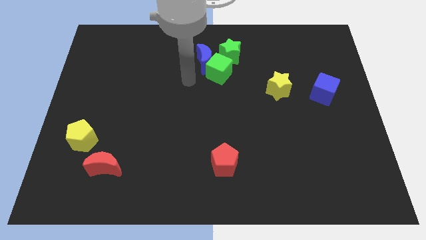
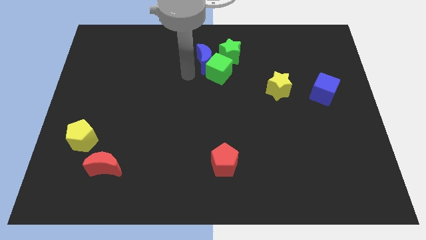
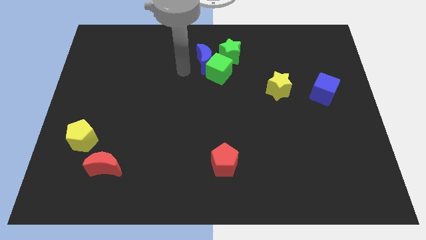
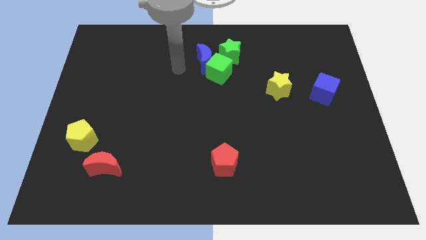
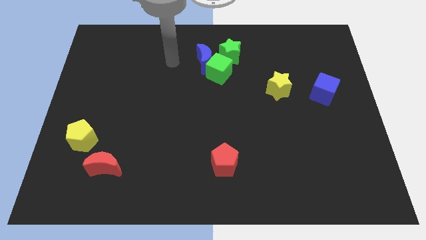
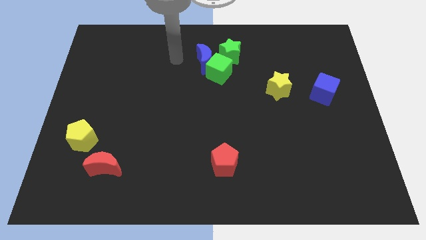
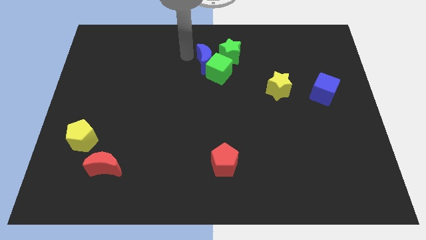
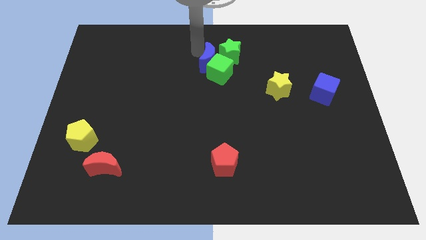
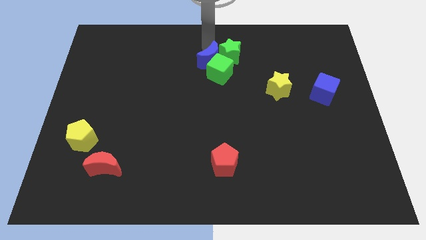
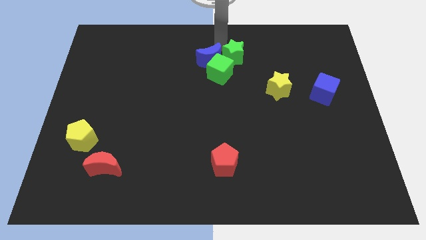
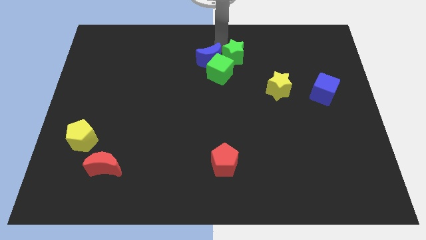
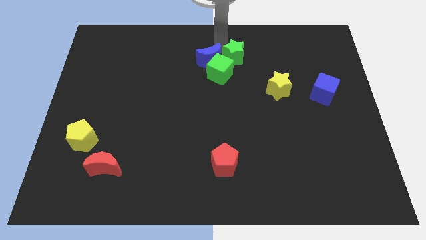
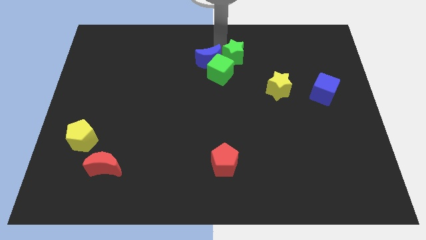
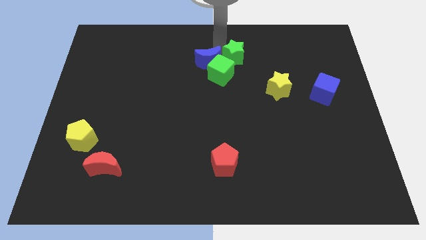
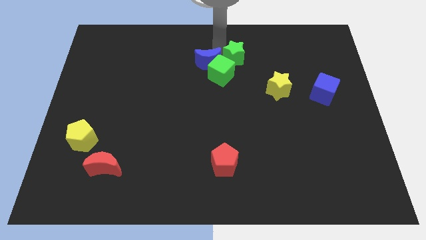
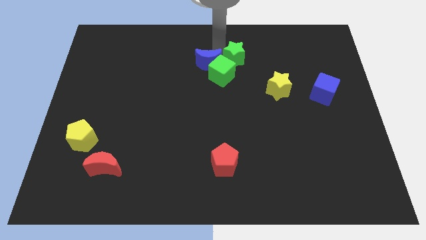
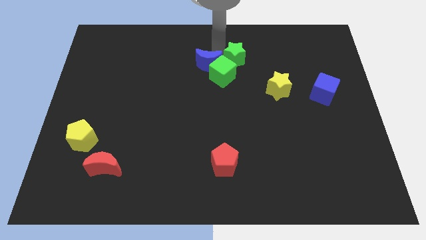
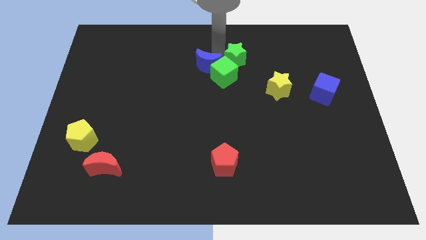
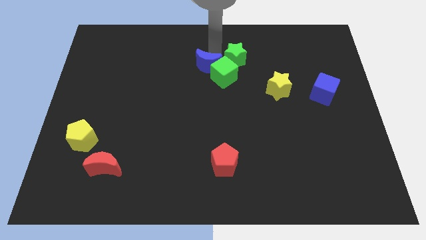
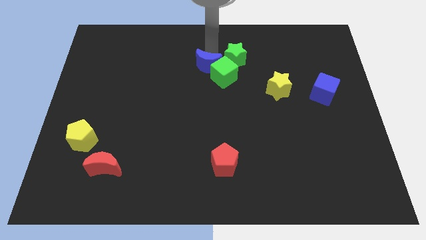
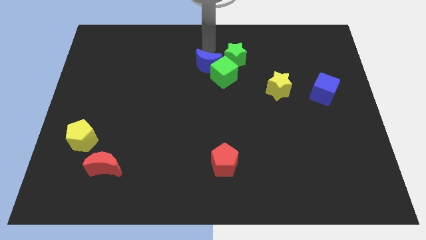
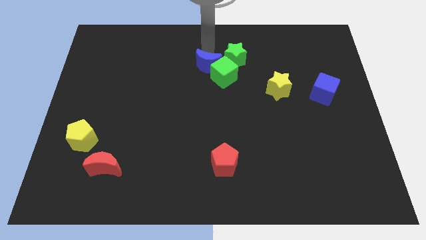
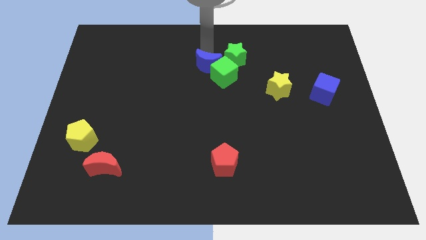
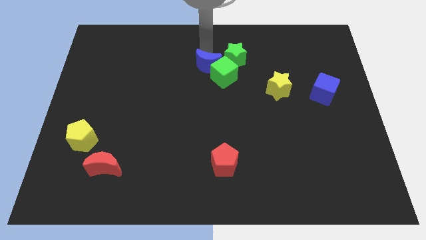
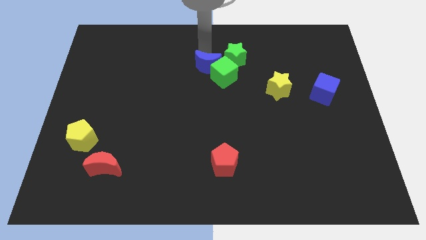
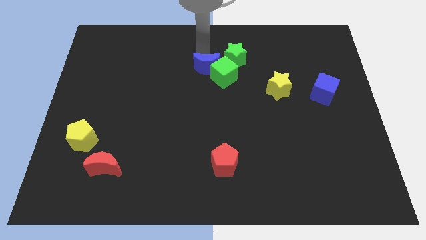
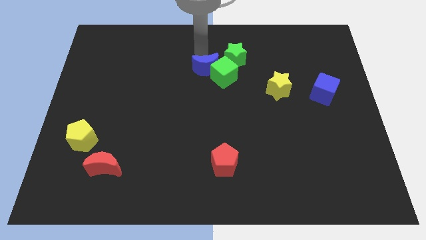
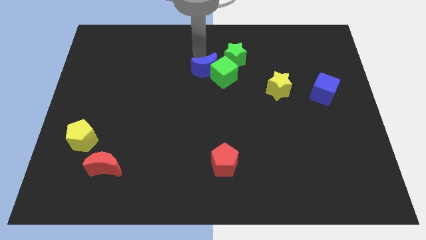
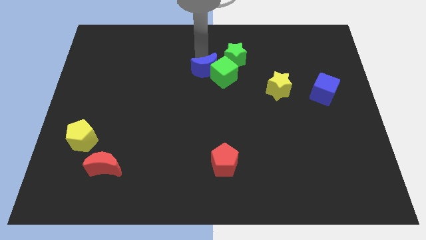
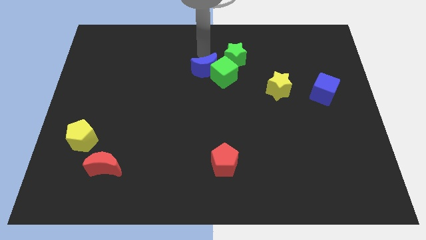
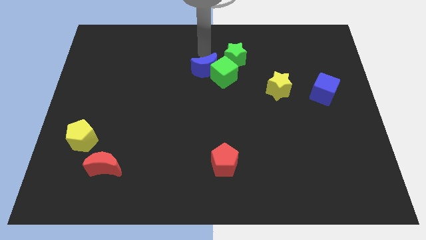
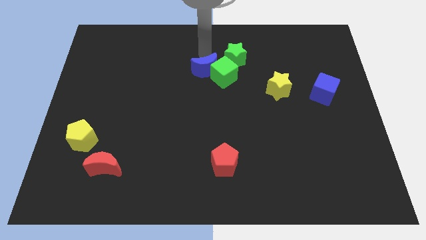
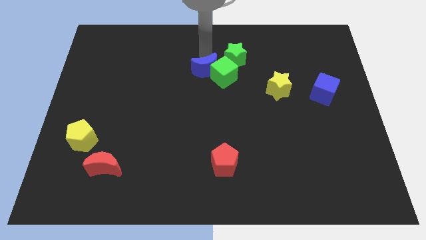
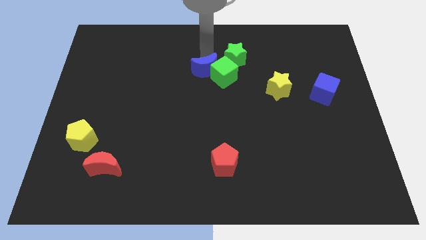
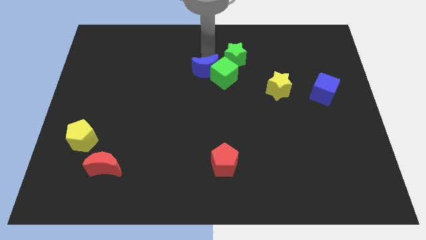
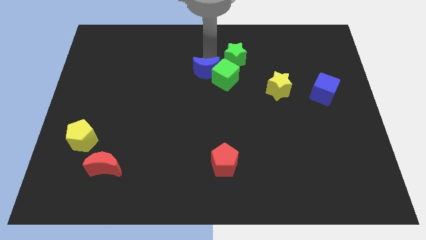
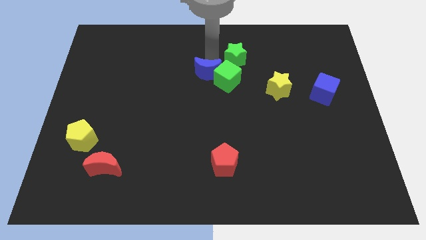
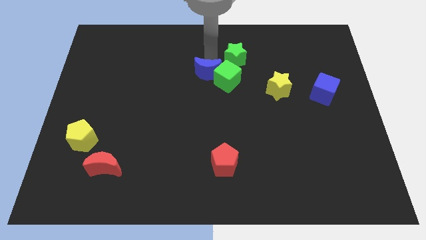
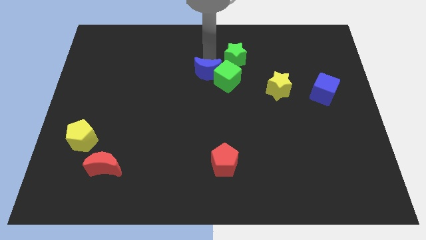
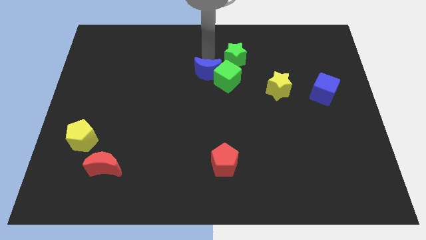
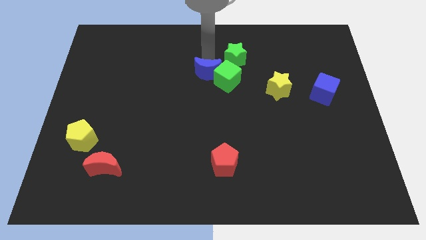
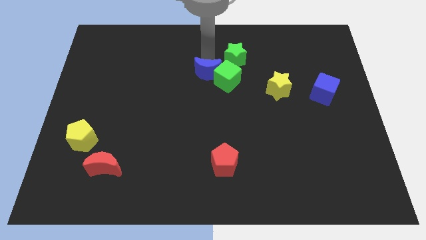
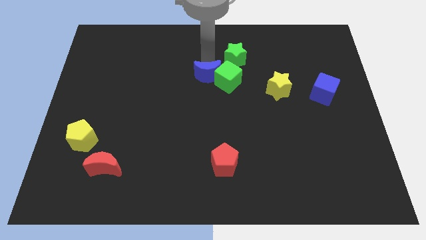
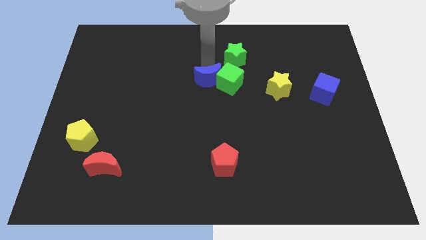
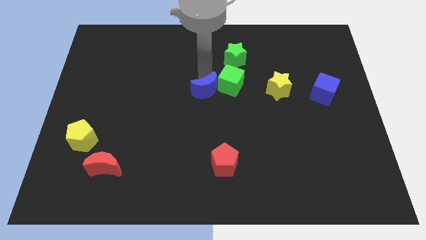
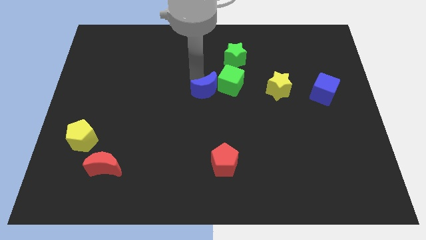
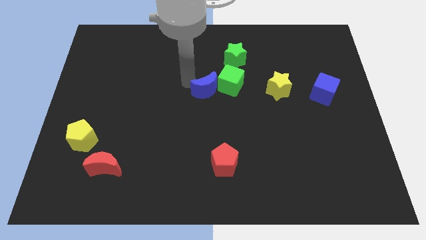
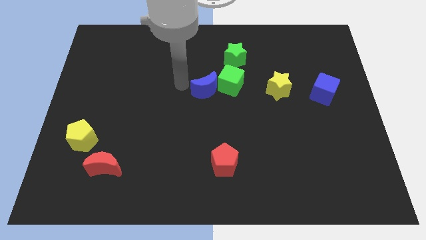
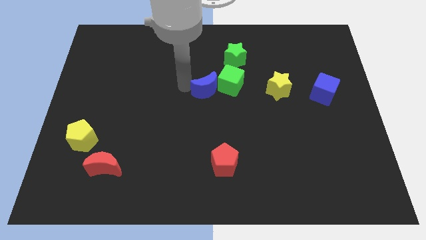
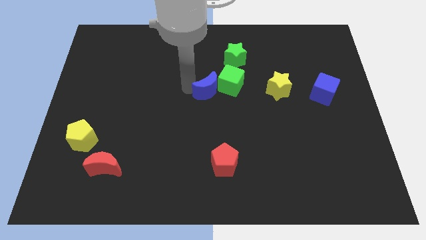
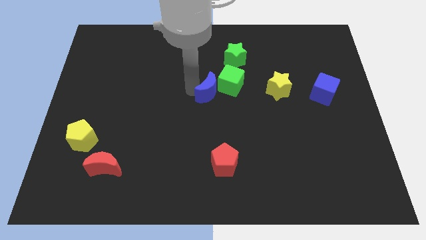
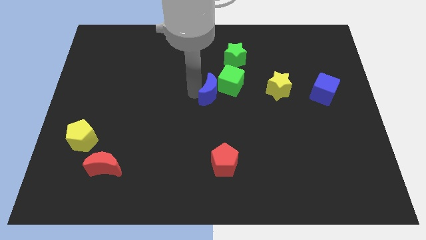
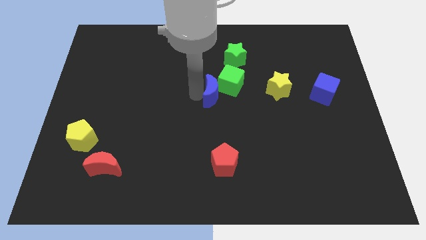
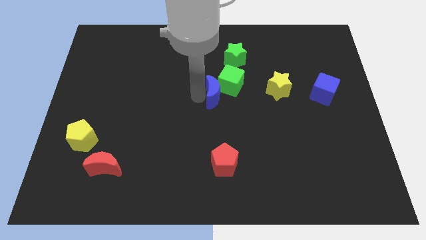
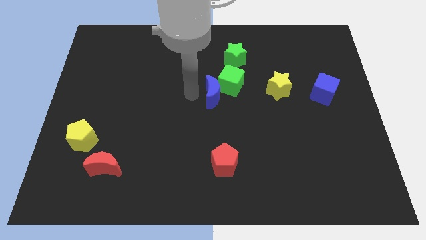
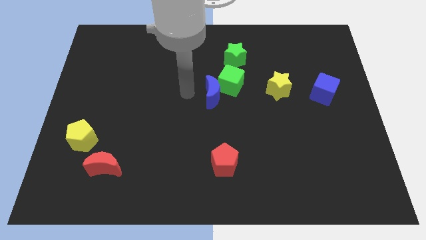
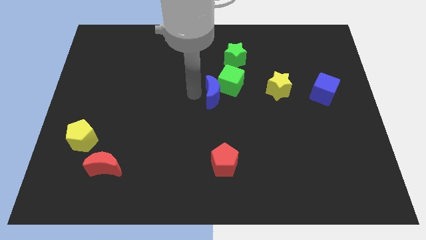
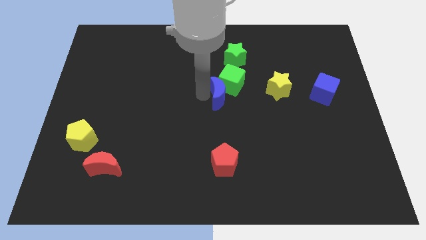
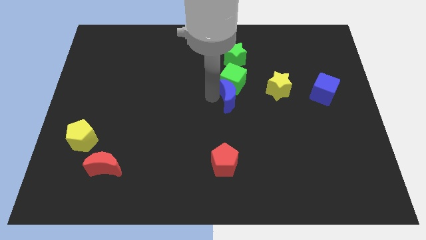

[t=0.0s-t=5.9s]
put the blue moon to the bottom right of the green cube

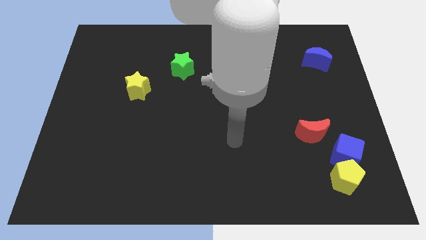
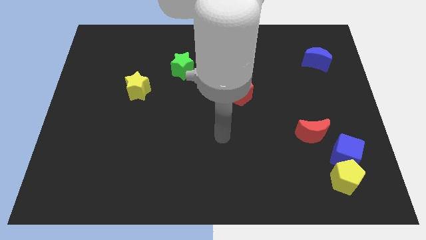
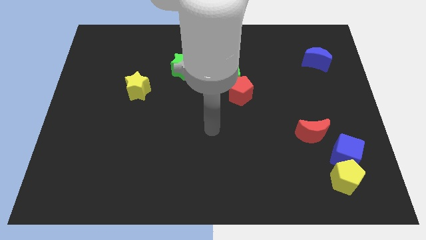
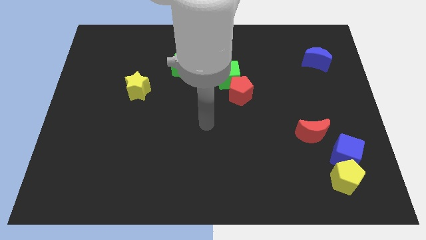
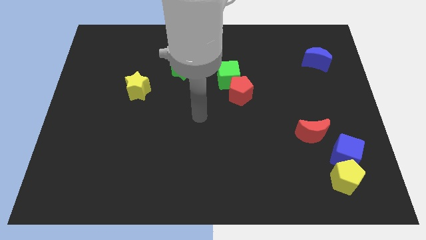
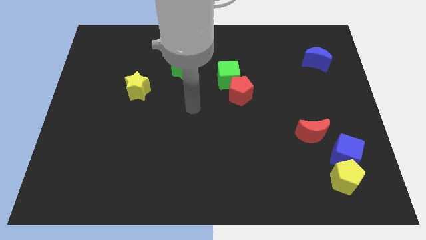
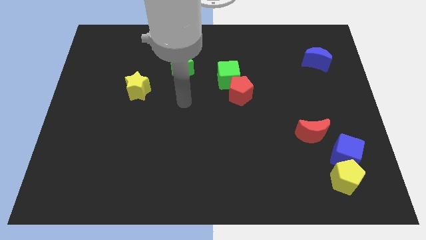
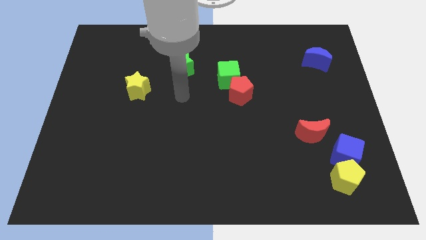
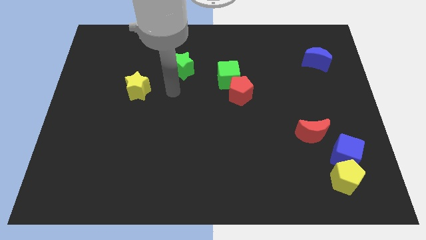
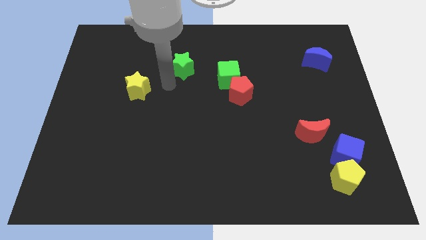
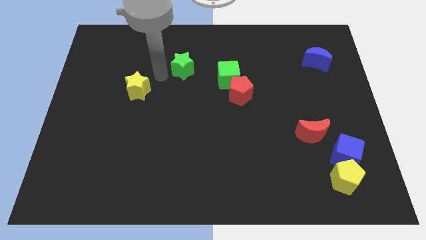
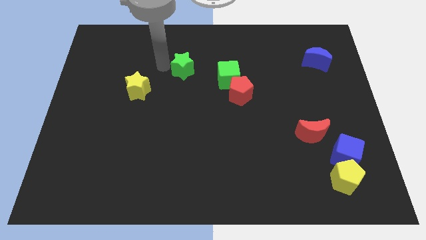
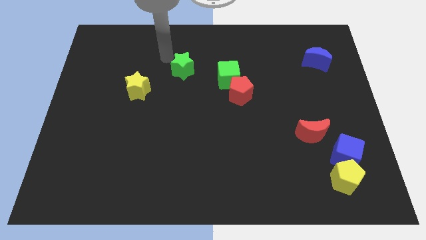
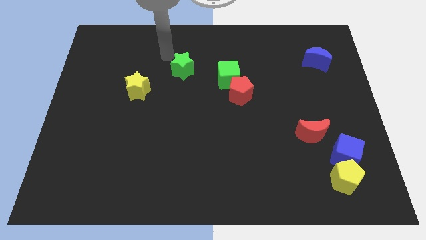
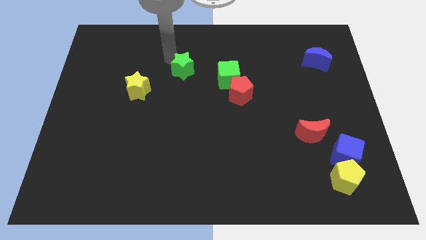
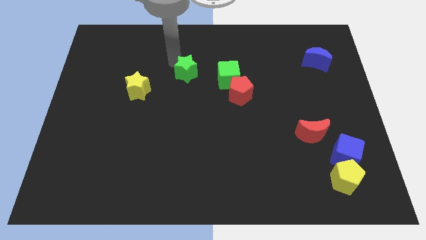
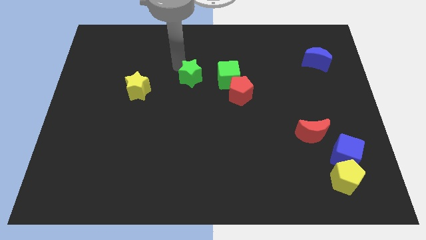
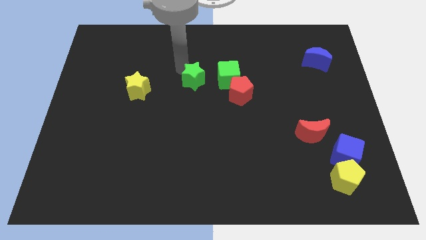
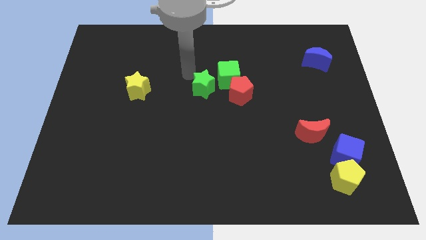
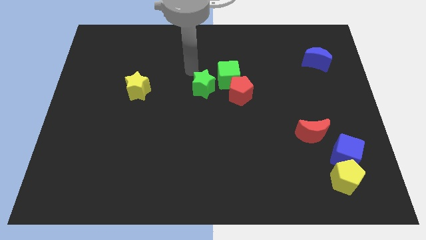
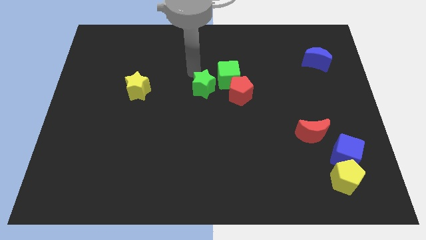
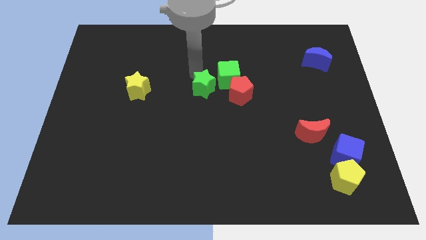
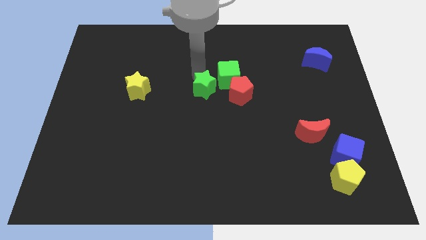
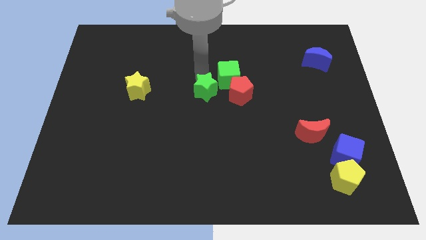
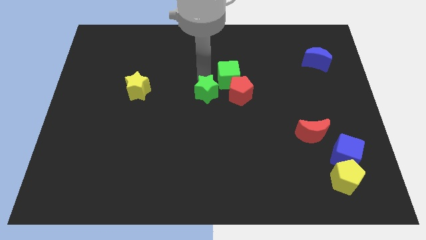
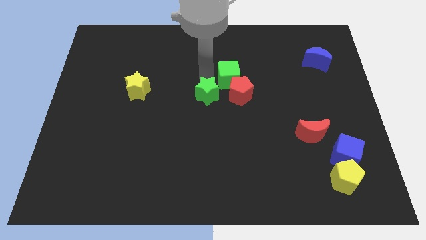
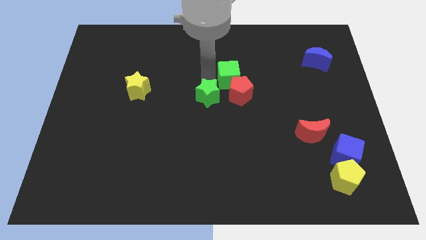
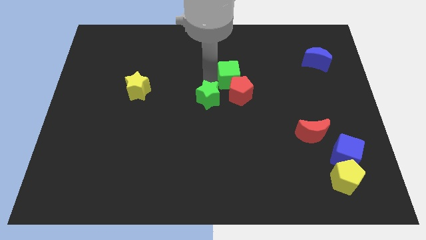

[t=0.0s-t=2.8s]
push the green star to the bottom left of the red pentagon
